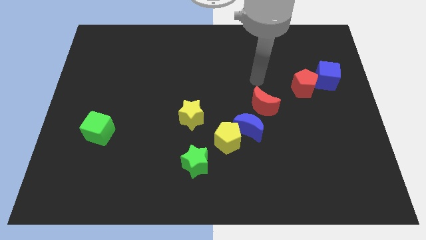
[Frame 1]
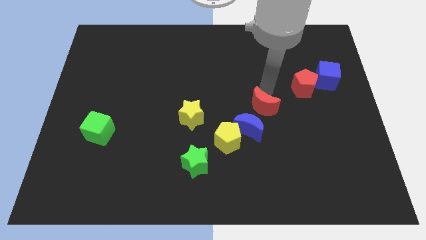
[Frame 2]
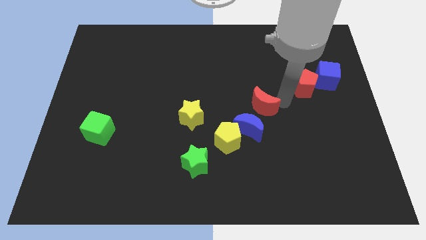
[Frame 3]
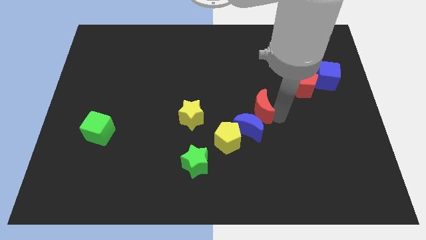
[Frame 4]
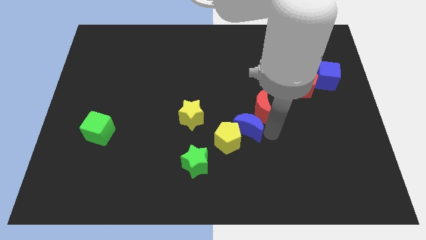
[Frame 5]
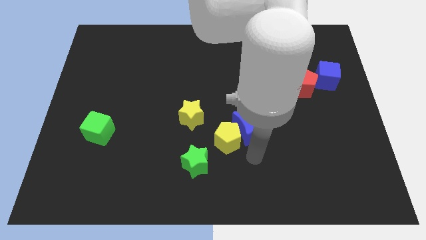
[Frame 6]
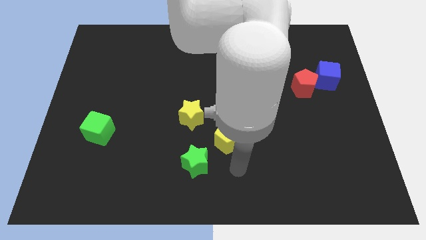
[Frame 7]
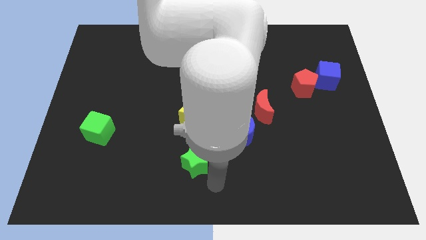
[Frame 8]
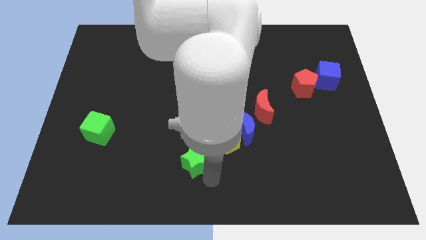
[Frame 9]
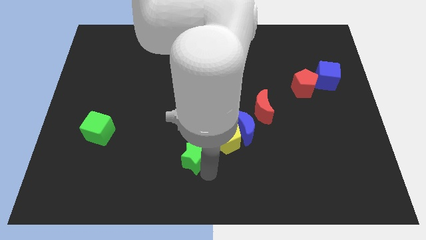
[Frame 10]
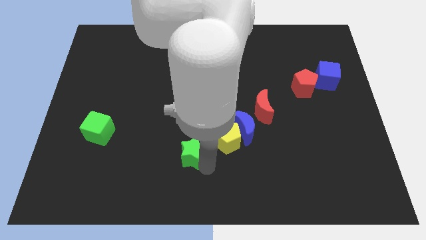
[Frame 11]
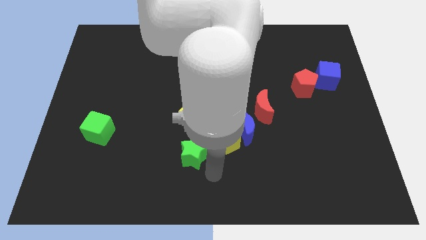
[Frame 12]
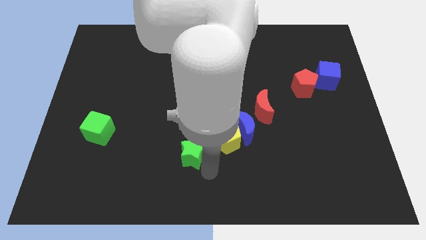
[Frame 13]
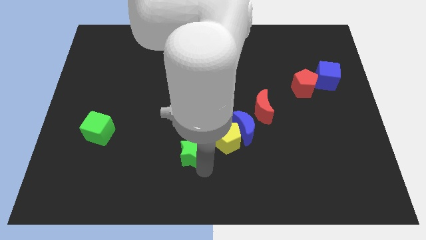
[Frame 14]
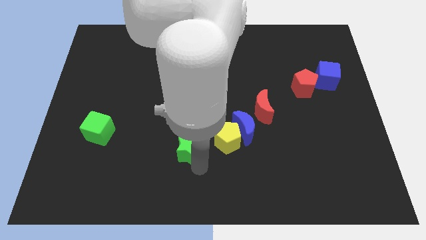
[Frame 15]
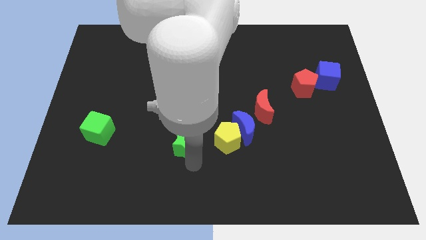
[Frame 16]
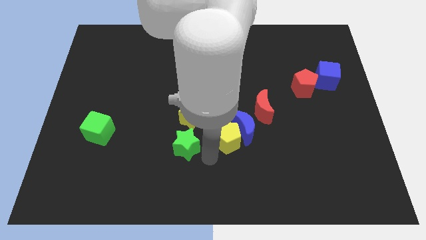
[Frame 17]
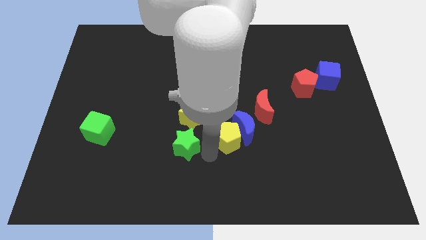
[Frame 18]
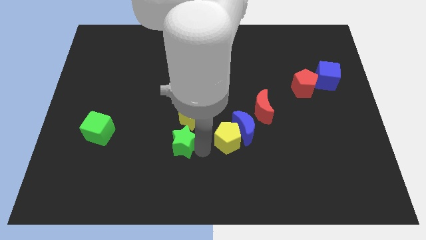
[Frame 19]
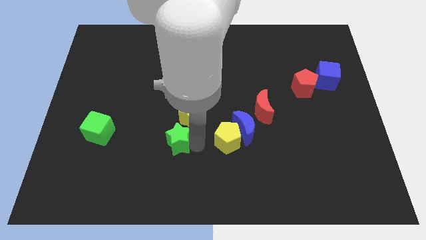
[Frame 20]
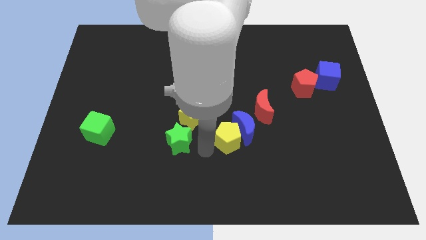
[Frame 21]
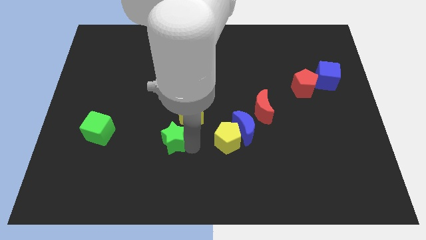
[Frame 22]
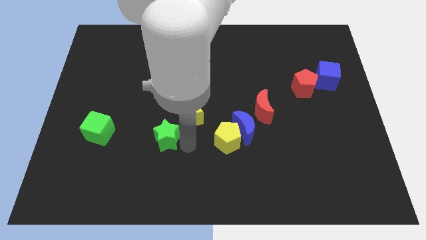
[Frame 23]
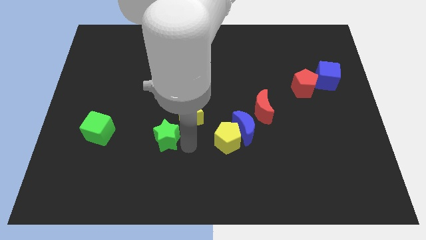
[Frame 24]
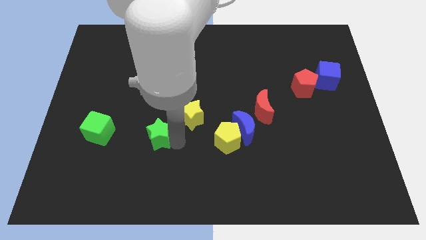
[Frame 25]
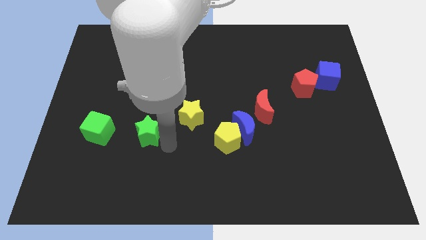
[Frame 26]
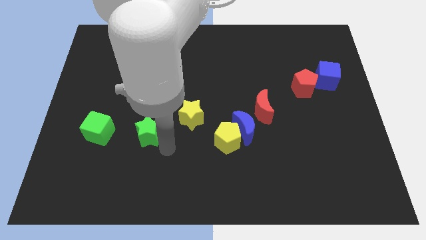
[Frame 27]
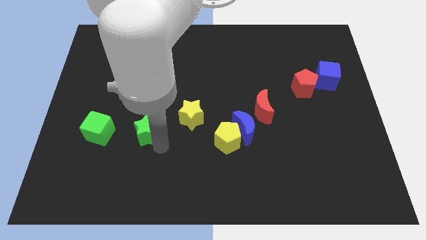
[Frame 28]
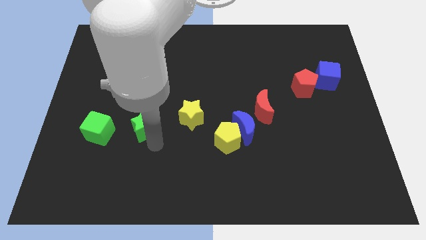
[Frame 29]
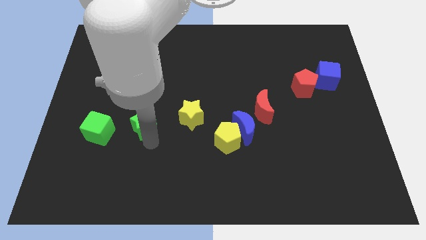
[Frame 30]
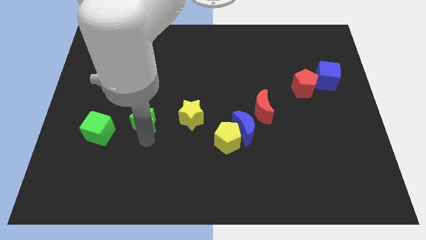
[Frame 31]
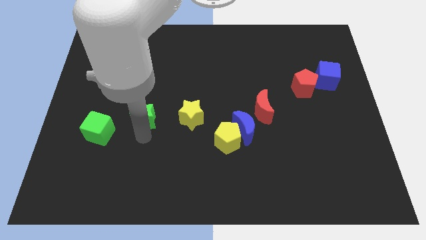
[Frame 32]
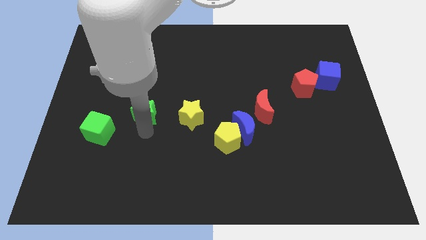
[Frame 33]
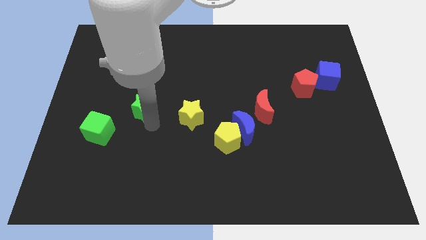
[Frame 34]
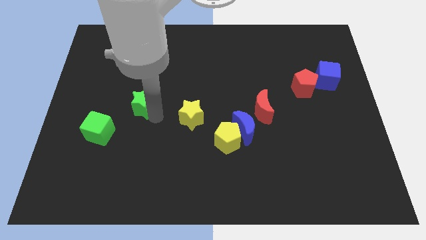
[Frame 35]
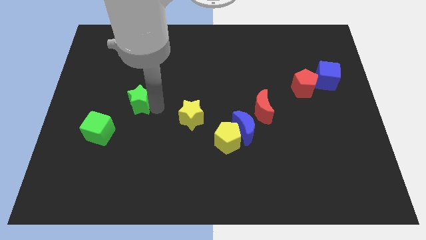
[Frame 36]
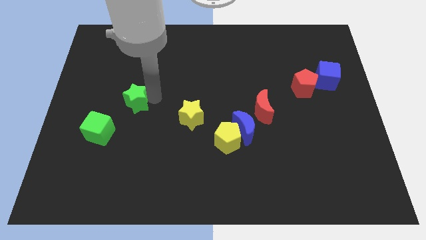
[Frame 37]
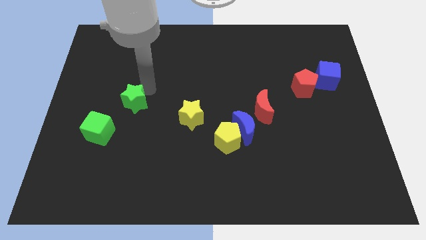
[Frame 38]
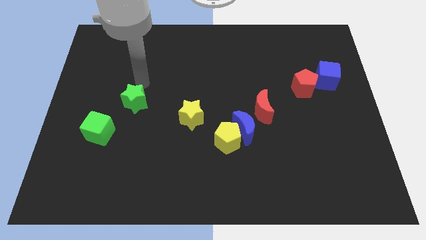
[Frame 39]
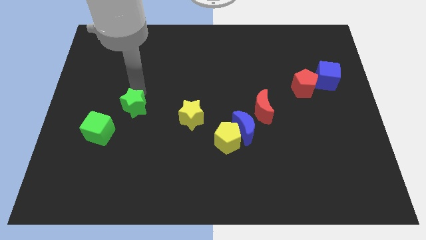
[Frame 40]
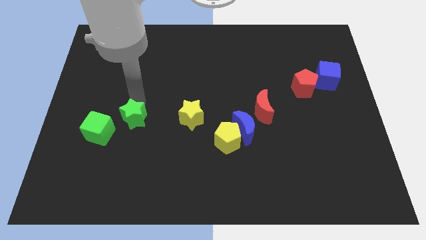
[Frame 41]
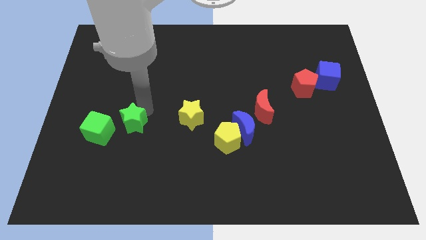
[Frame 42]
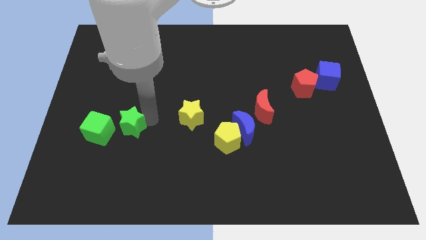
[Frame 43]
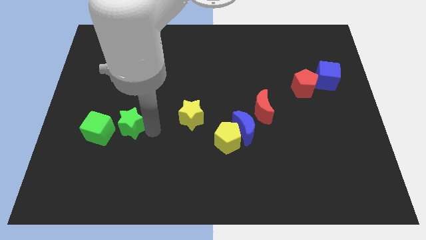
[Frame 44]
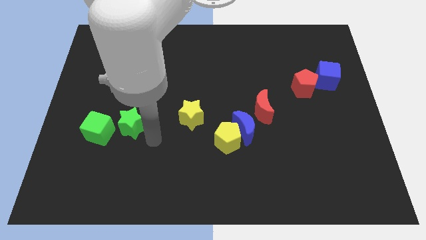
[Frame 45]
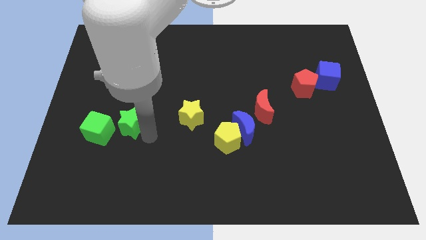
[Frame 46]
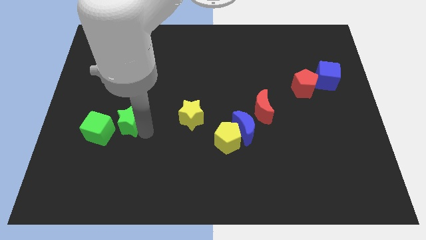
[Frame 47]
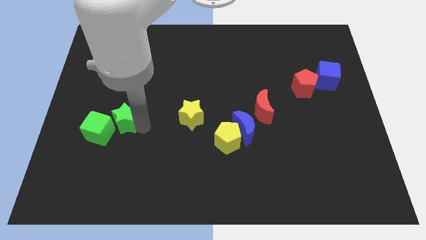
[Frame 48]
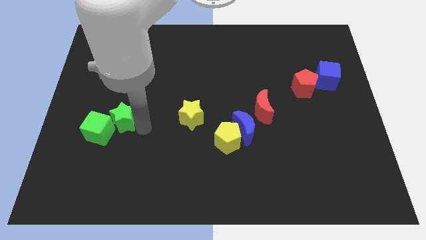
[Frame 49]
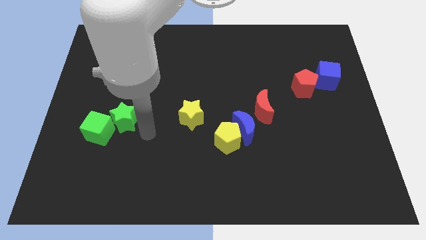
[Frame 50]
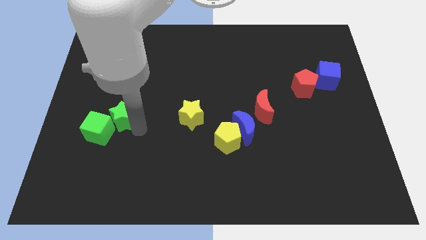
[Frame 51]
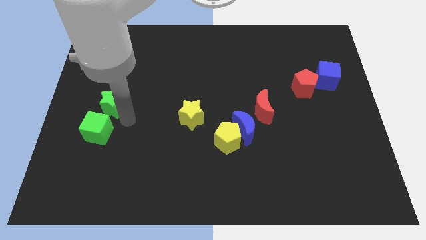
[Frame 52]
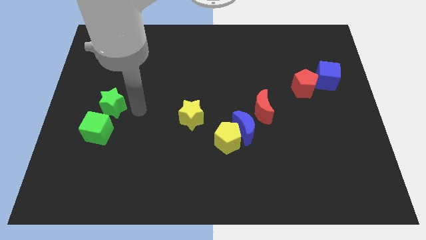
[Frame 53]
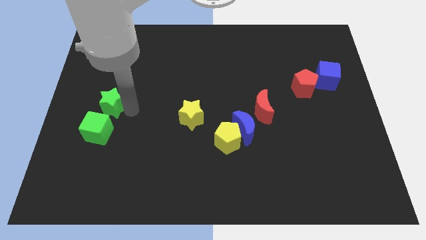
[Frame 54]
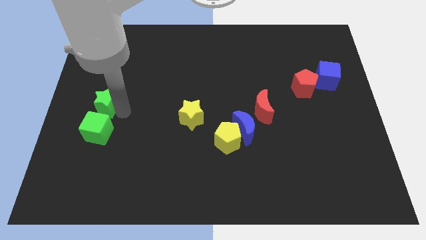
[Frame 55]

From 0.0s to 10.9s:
push the green star to the left side

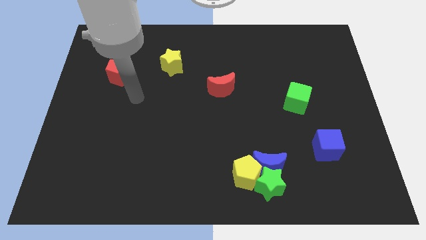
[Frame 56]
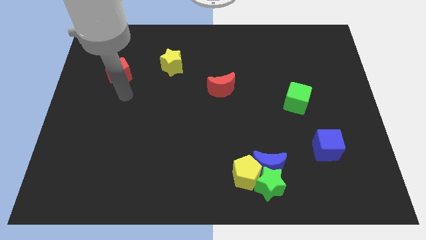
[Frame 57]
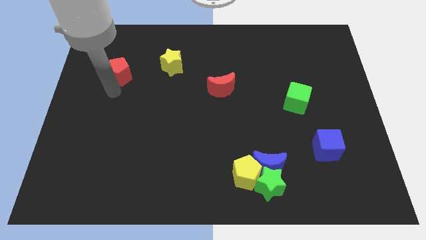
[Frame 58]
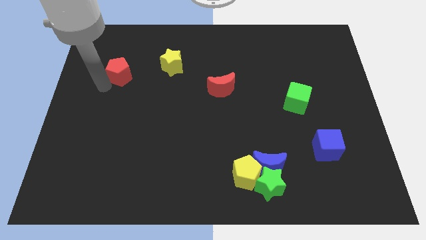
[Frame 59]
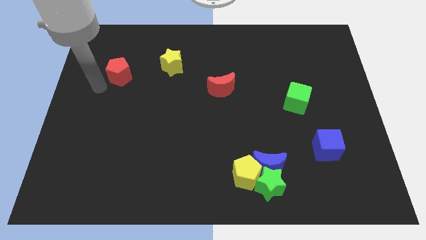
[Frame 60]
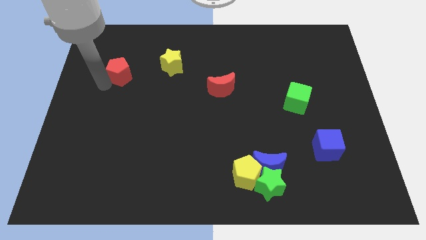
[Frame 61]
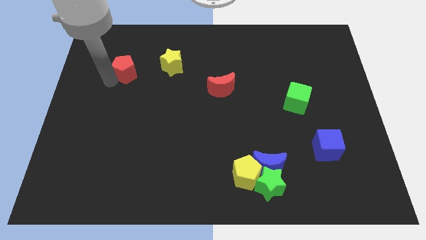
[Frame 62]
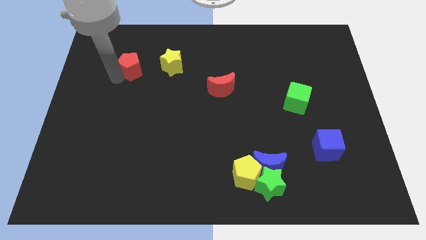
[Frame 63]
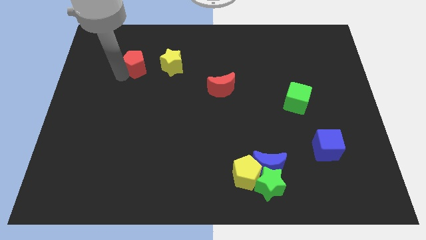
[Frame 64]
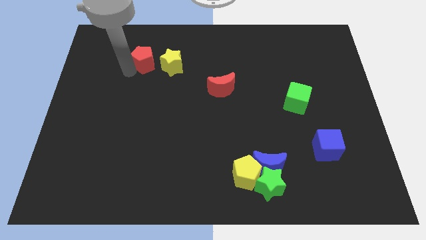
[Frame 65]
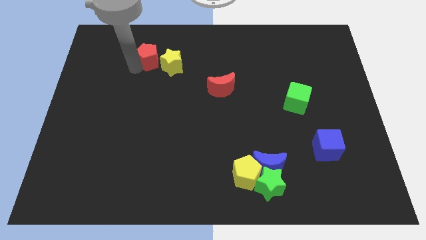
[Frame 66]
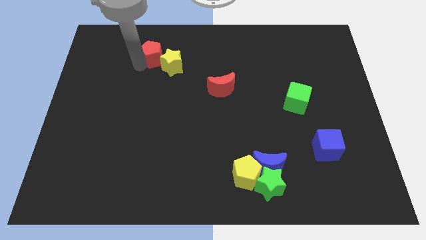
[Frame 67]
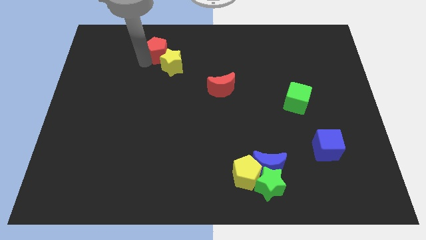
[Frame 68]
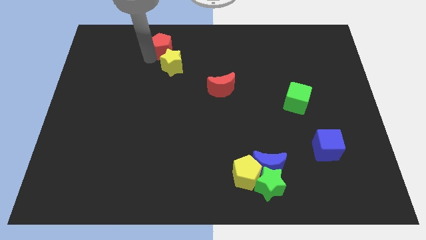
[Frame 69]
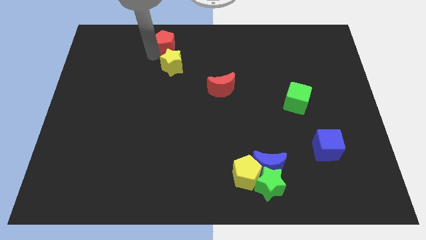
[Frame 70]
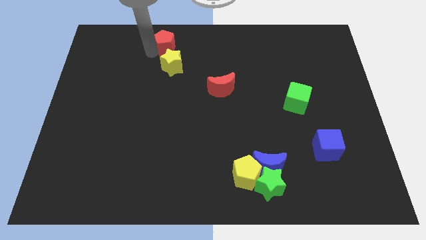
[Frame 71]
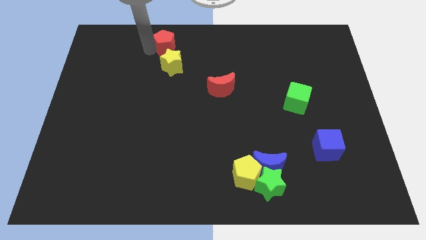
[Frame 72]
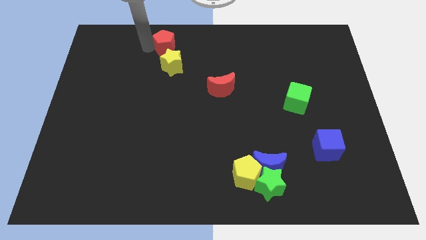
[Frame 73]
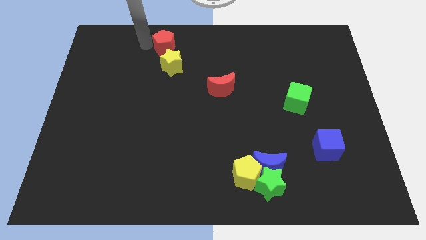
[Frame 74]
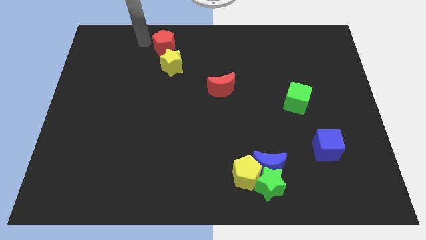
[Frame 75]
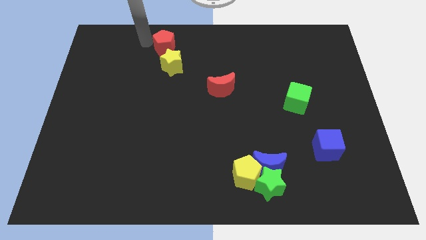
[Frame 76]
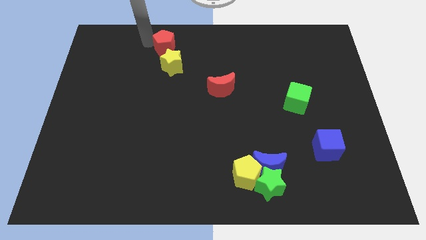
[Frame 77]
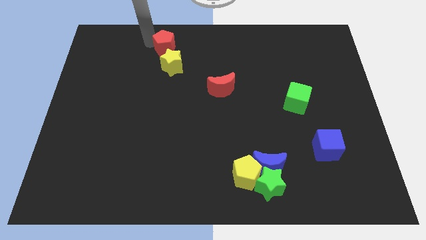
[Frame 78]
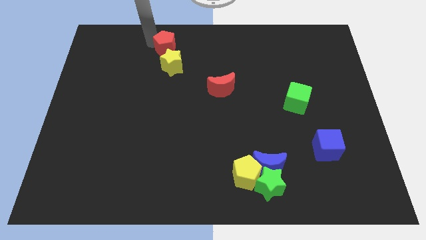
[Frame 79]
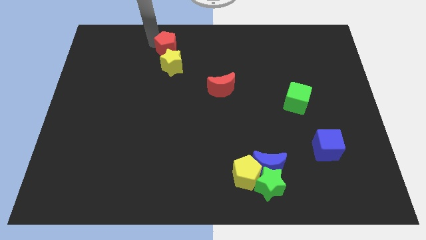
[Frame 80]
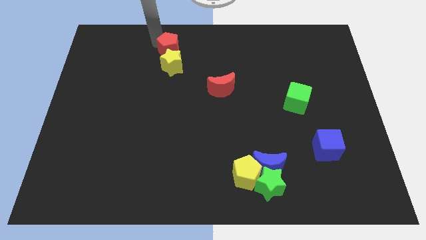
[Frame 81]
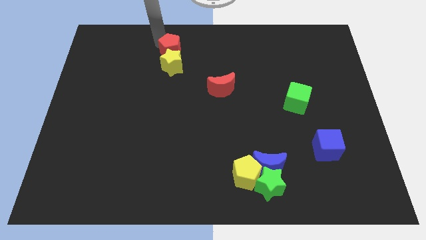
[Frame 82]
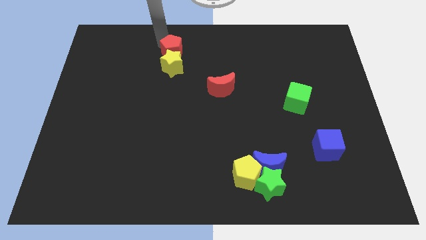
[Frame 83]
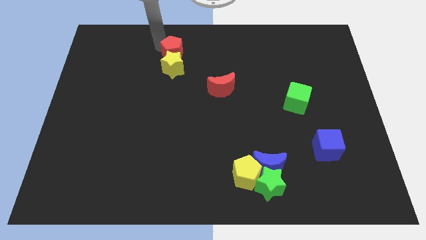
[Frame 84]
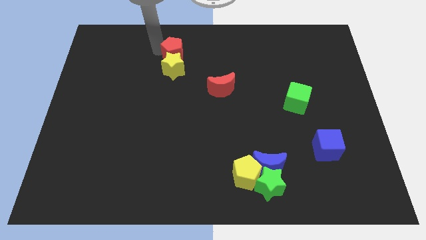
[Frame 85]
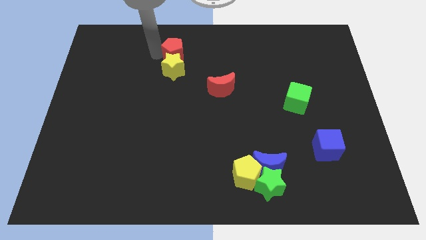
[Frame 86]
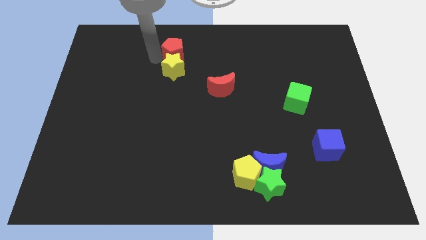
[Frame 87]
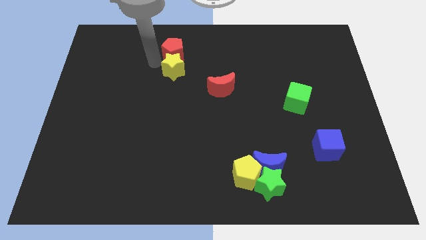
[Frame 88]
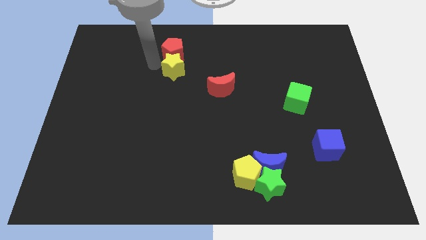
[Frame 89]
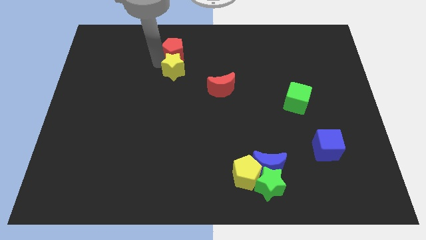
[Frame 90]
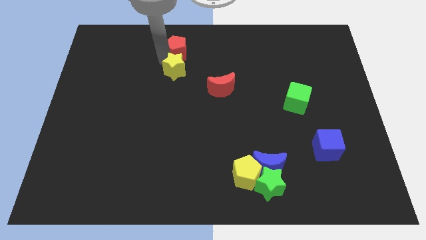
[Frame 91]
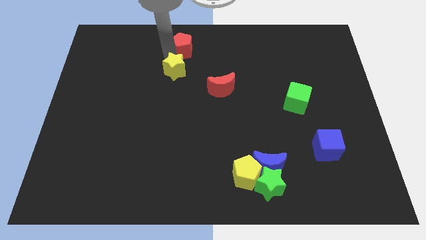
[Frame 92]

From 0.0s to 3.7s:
put the red pentagon to the top
